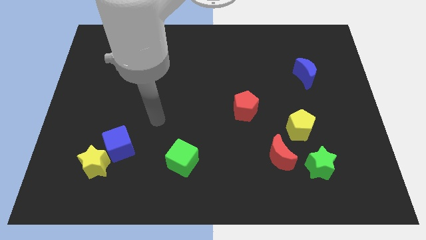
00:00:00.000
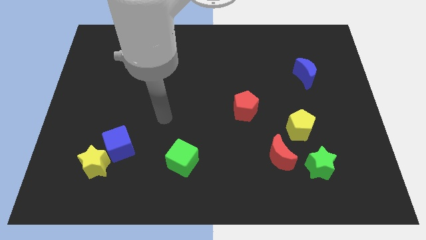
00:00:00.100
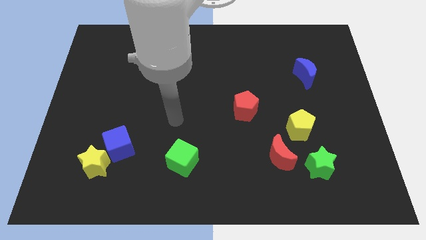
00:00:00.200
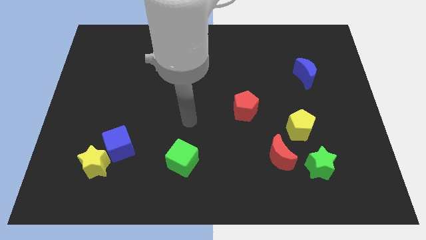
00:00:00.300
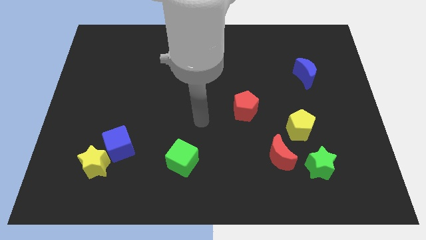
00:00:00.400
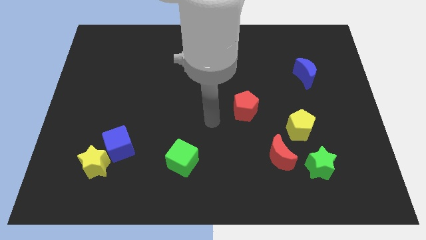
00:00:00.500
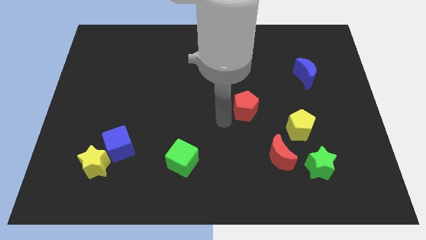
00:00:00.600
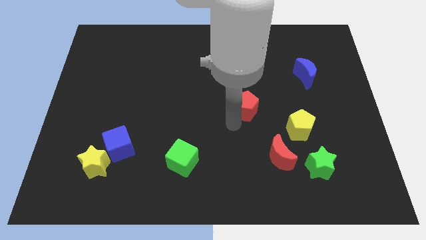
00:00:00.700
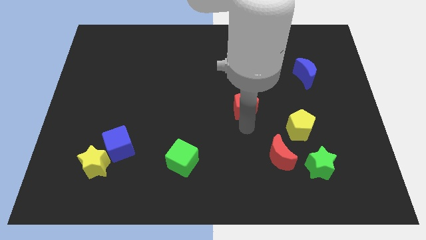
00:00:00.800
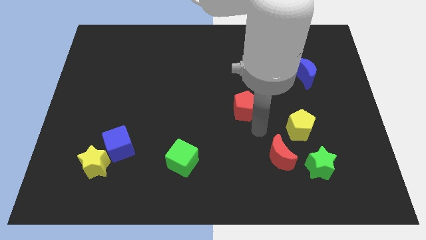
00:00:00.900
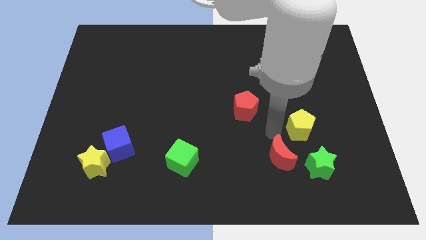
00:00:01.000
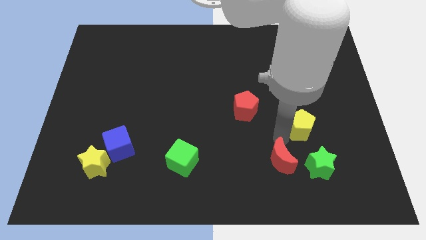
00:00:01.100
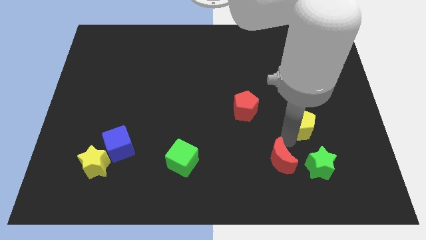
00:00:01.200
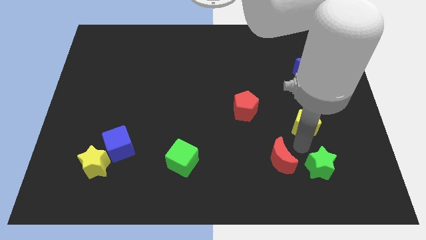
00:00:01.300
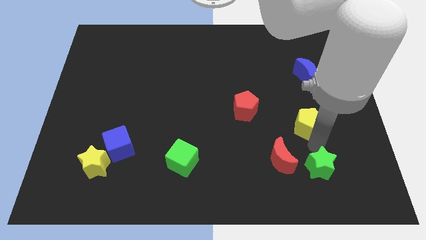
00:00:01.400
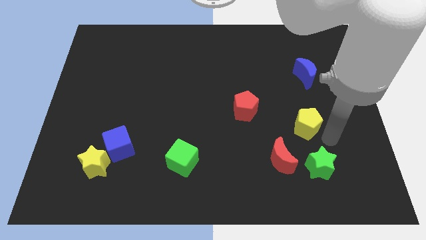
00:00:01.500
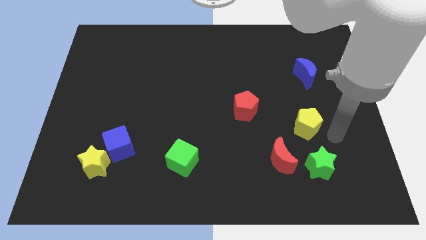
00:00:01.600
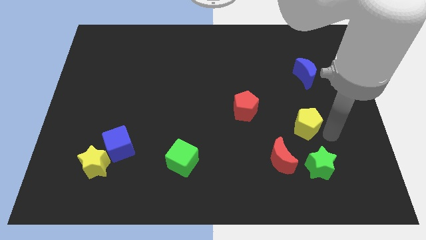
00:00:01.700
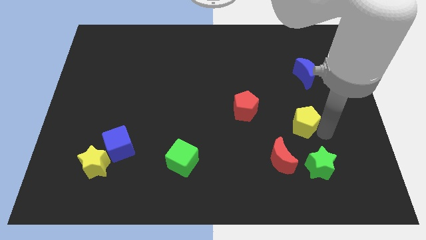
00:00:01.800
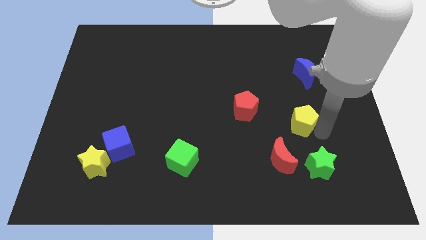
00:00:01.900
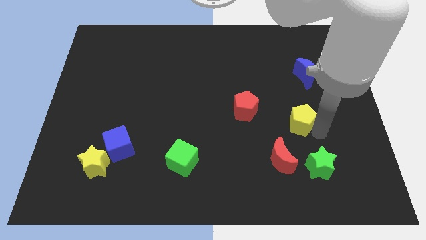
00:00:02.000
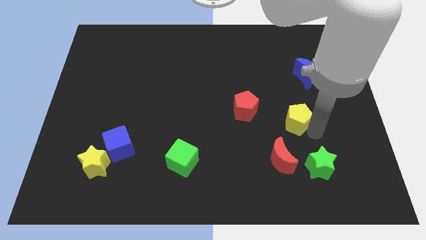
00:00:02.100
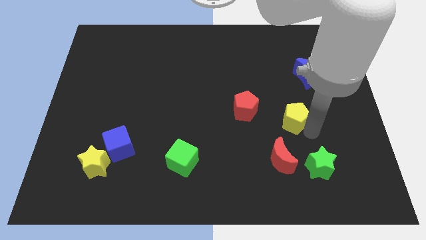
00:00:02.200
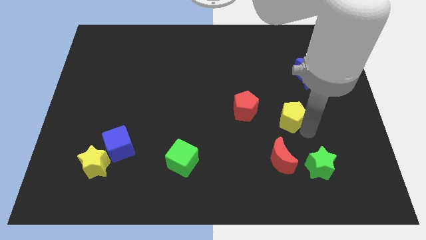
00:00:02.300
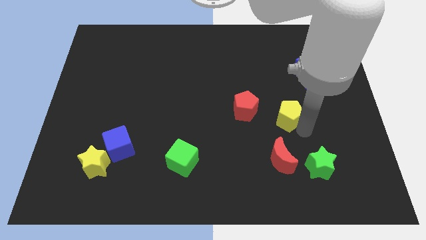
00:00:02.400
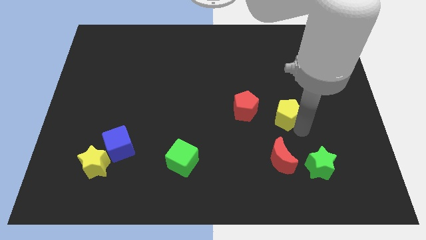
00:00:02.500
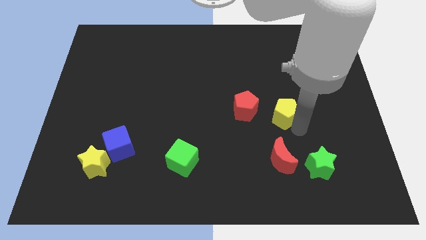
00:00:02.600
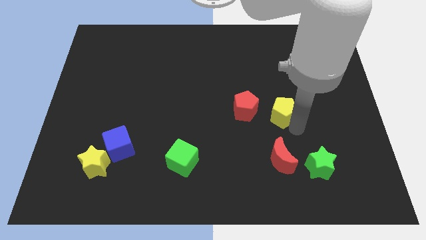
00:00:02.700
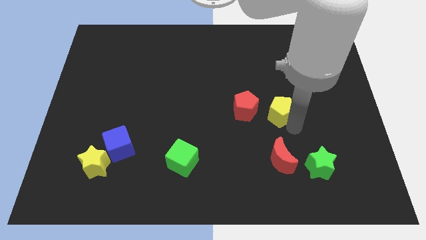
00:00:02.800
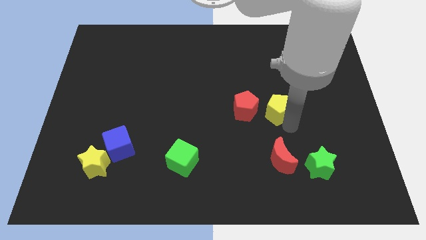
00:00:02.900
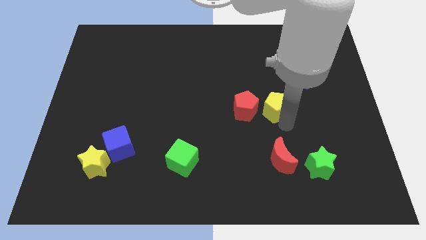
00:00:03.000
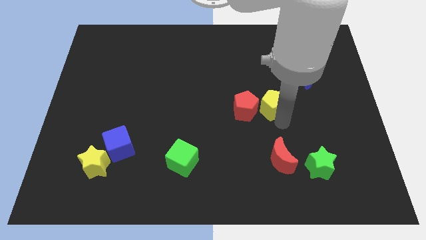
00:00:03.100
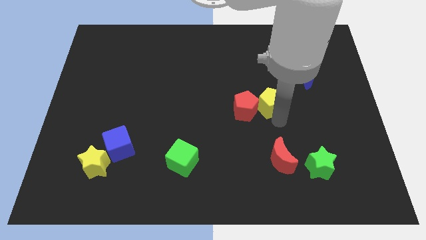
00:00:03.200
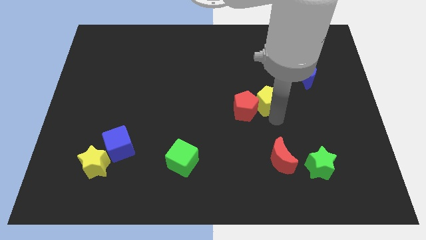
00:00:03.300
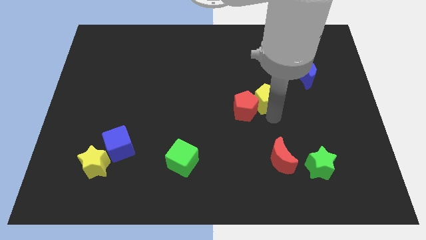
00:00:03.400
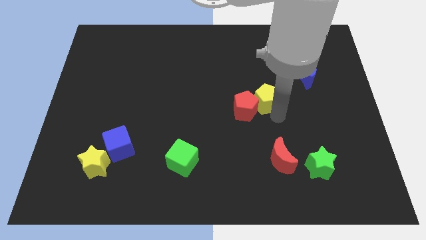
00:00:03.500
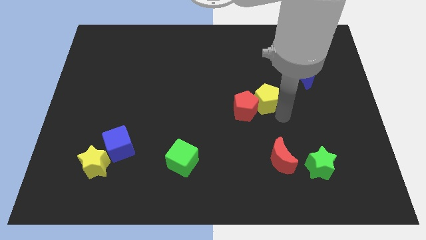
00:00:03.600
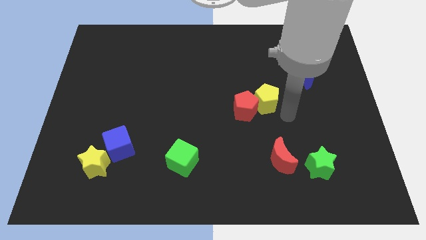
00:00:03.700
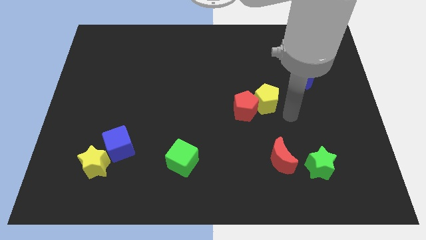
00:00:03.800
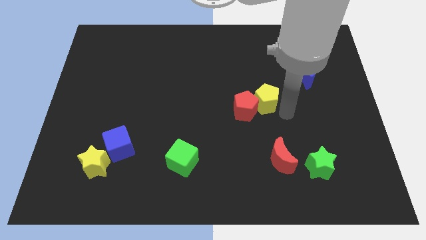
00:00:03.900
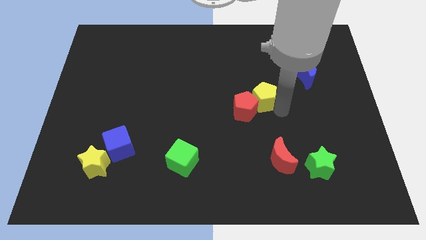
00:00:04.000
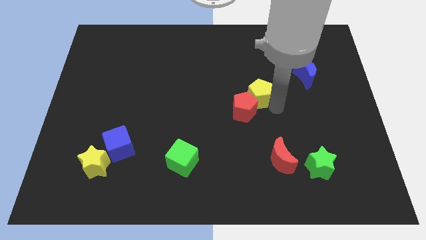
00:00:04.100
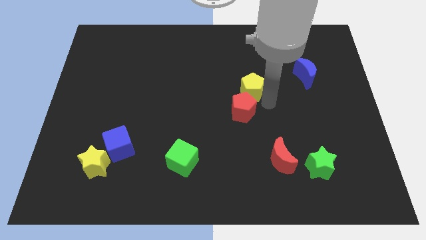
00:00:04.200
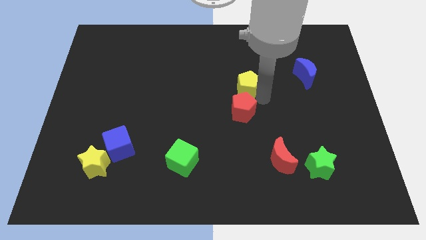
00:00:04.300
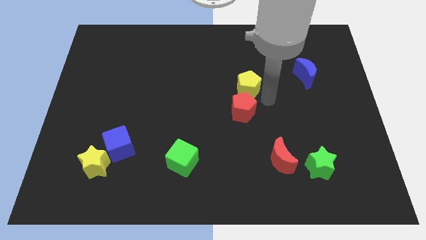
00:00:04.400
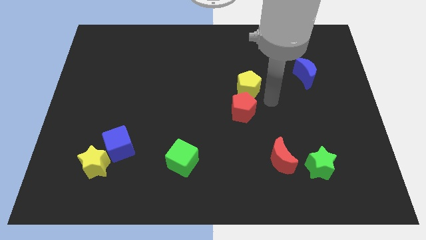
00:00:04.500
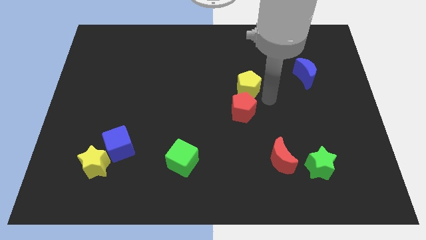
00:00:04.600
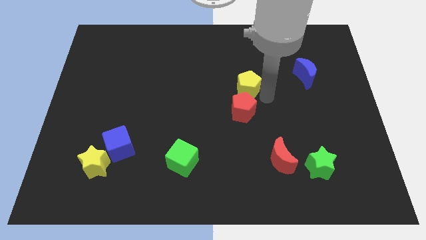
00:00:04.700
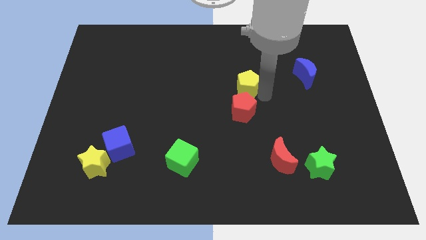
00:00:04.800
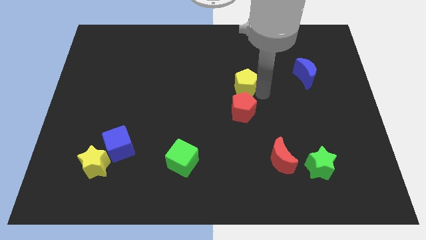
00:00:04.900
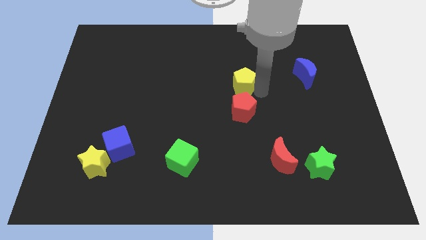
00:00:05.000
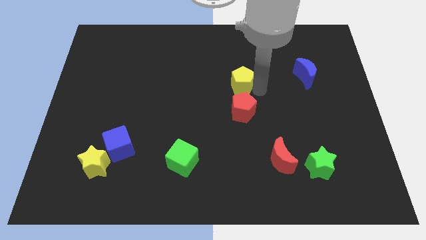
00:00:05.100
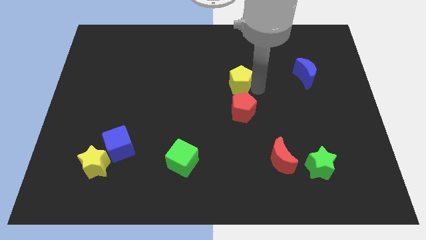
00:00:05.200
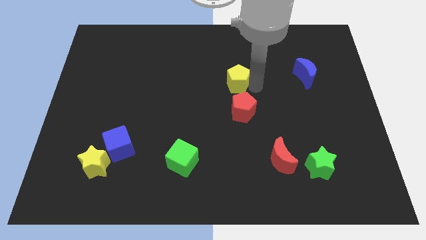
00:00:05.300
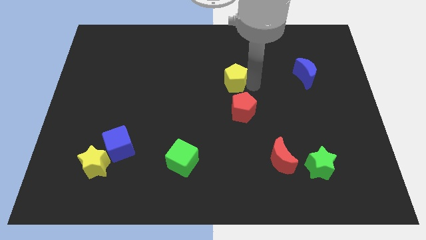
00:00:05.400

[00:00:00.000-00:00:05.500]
push the yellow pentagon upwards and then to the left

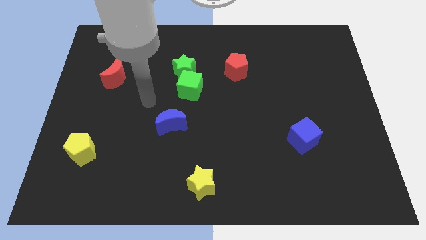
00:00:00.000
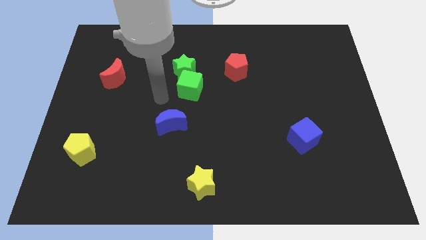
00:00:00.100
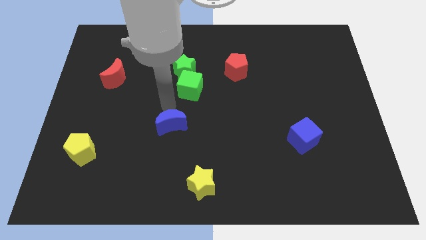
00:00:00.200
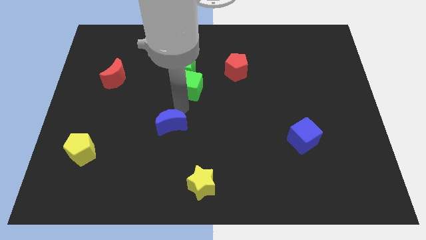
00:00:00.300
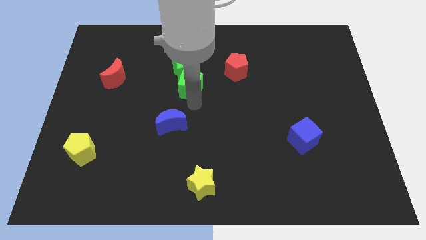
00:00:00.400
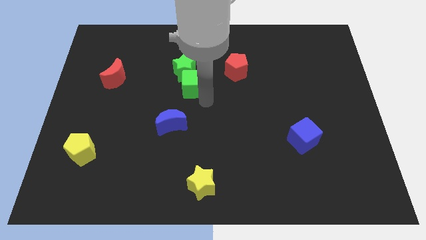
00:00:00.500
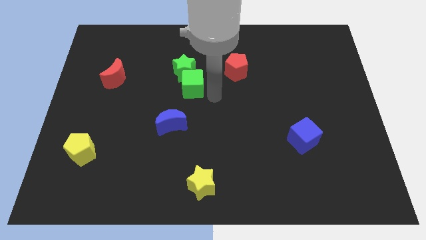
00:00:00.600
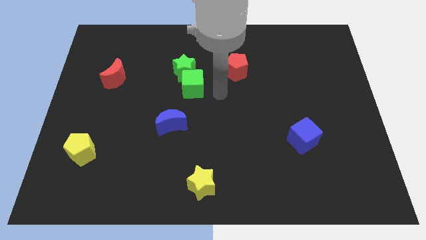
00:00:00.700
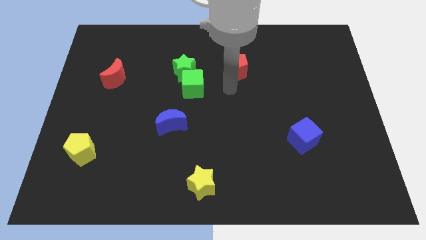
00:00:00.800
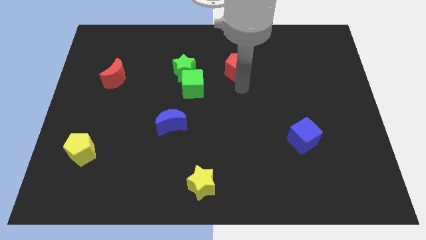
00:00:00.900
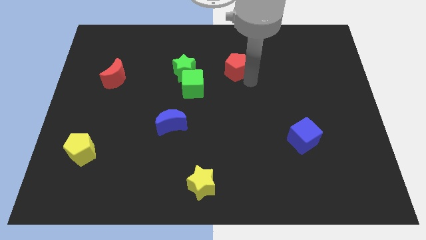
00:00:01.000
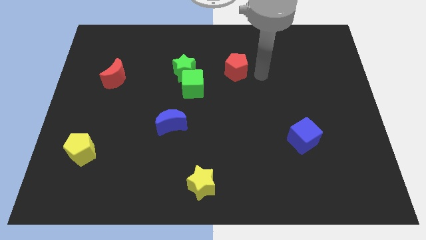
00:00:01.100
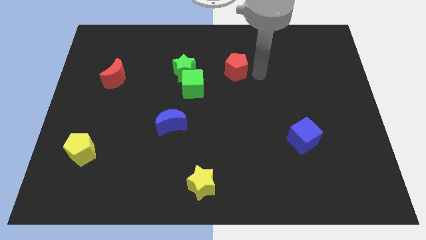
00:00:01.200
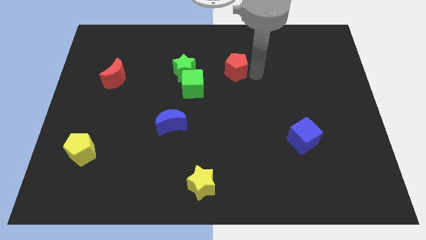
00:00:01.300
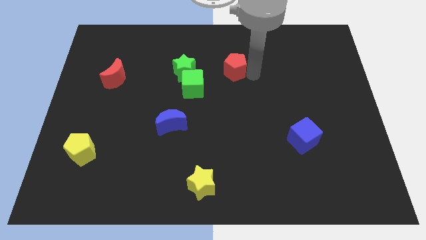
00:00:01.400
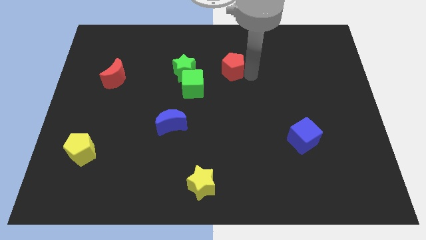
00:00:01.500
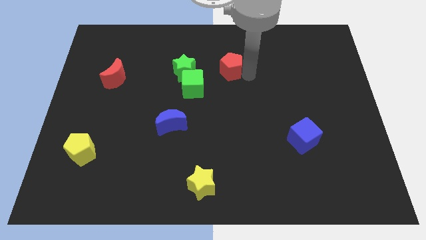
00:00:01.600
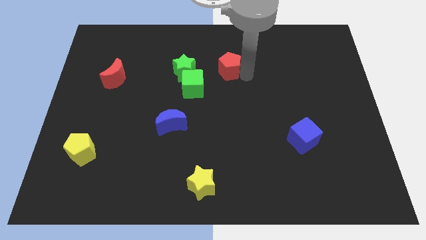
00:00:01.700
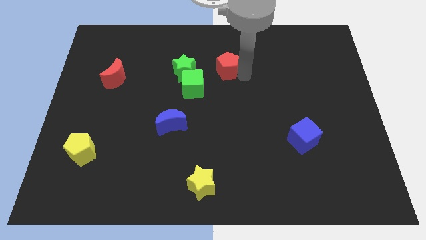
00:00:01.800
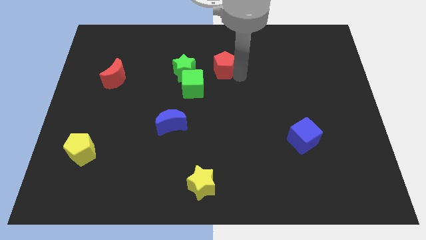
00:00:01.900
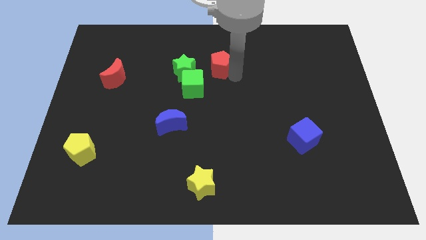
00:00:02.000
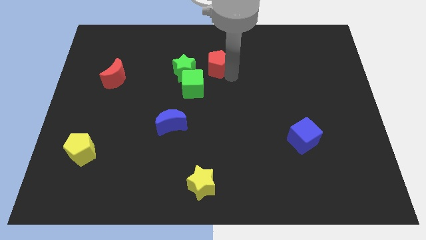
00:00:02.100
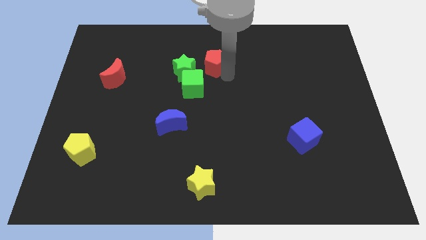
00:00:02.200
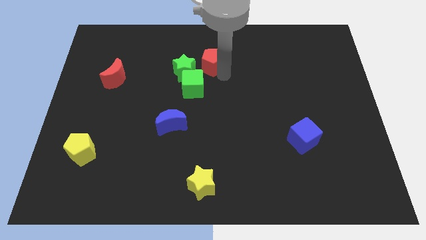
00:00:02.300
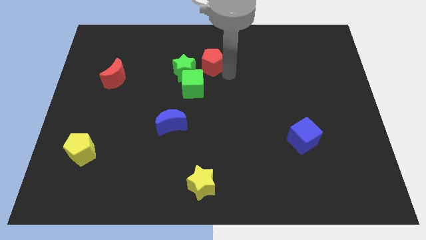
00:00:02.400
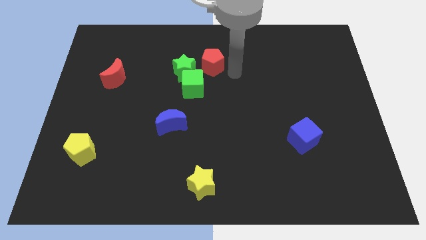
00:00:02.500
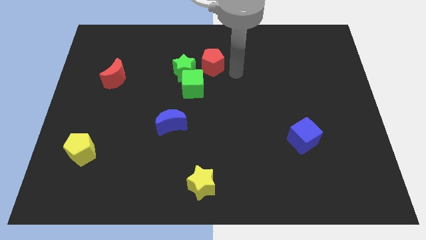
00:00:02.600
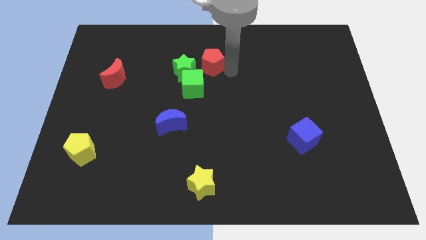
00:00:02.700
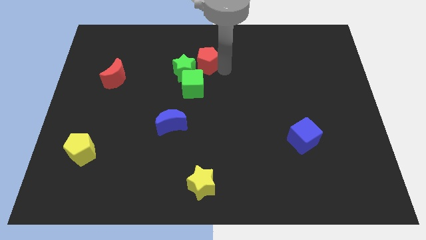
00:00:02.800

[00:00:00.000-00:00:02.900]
slightly push the red pentagon to the left
